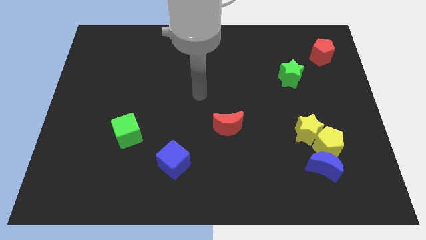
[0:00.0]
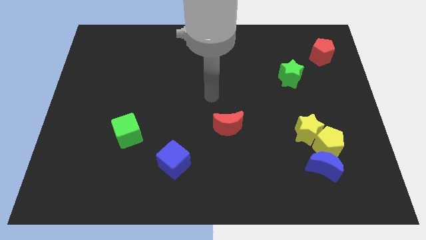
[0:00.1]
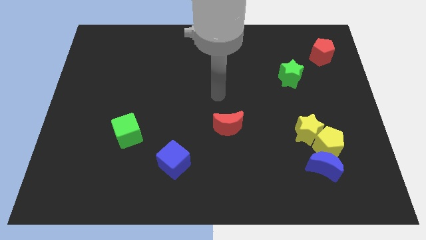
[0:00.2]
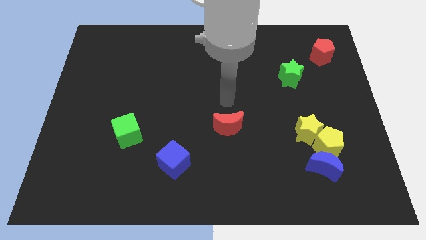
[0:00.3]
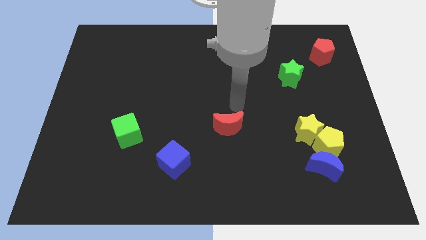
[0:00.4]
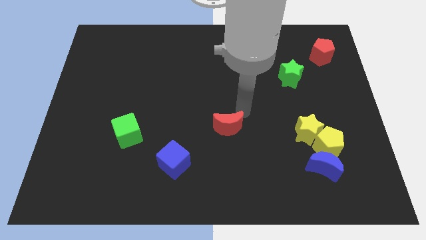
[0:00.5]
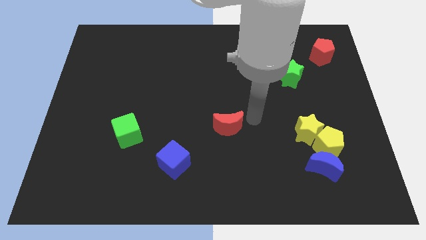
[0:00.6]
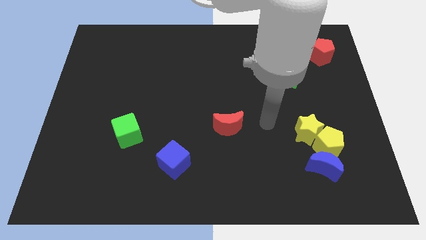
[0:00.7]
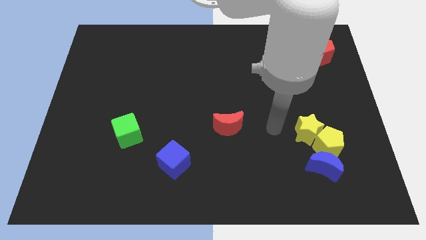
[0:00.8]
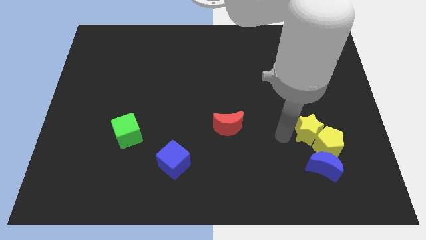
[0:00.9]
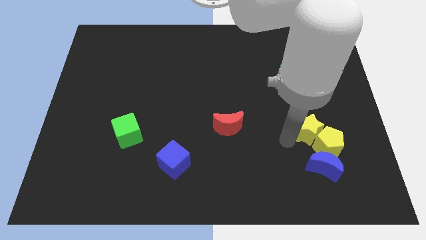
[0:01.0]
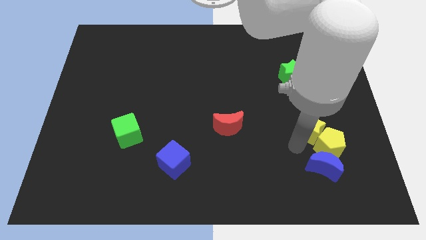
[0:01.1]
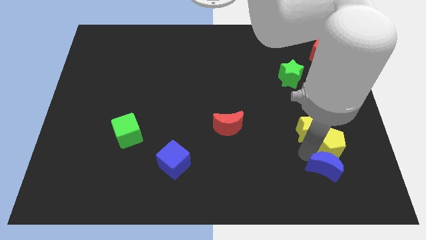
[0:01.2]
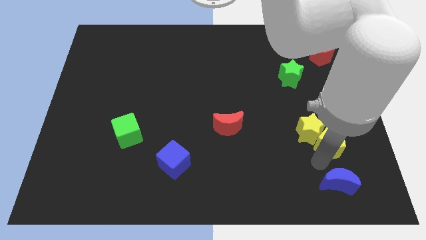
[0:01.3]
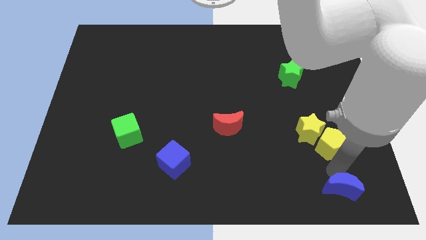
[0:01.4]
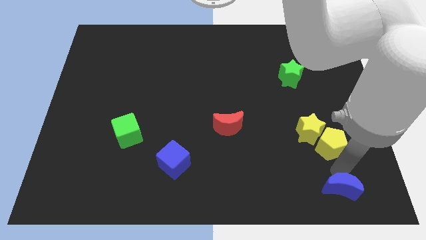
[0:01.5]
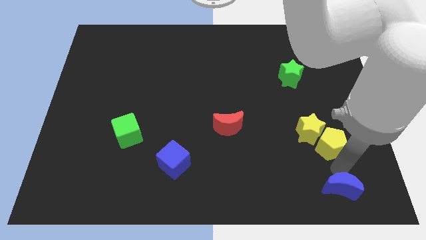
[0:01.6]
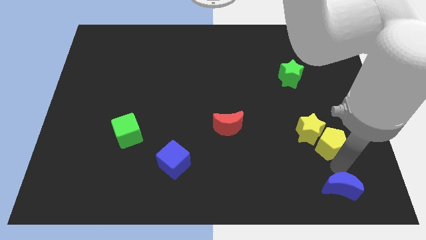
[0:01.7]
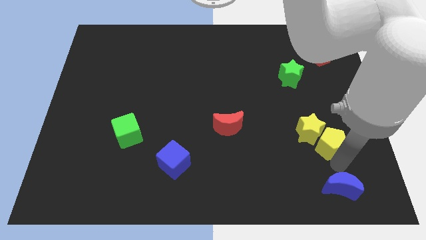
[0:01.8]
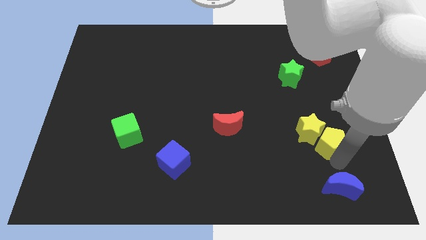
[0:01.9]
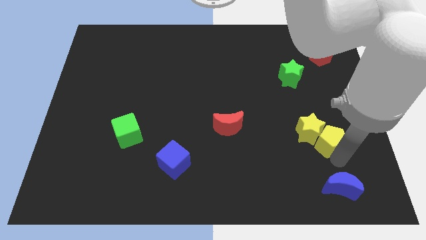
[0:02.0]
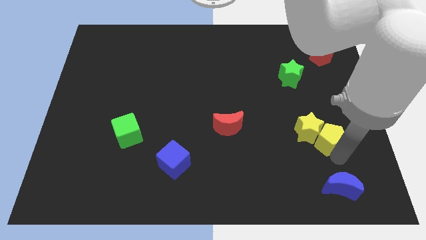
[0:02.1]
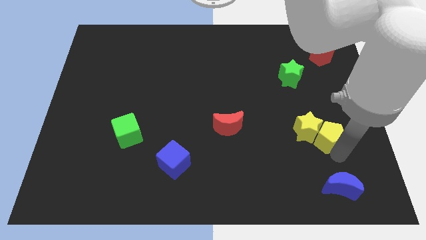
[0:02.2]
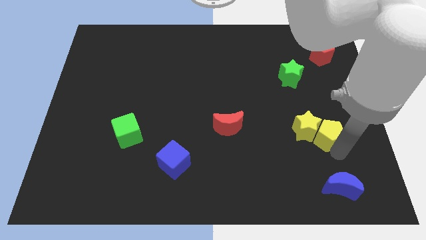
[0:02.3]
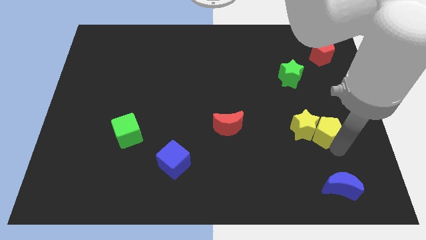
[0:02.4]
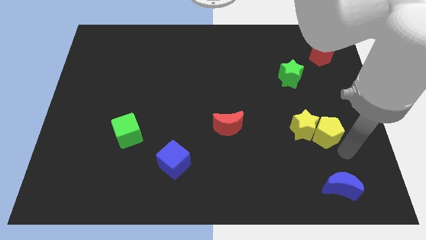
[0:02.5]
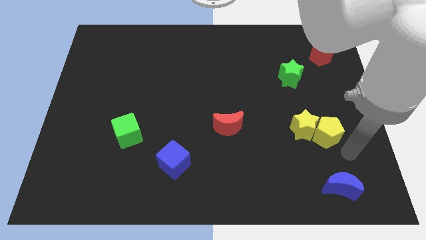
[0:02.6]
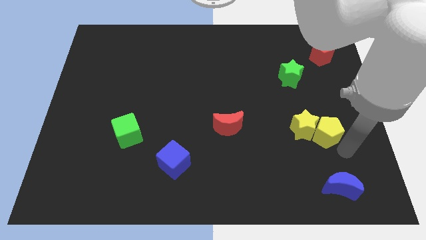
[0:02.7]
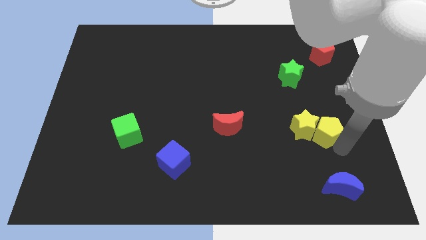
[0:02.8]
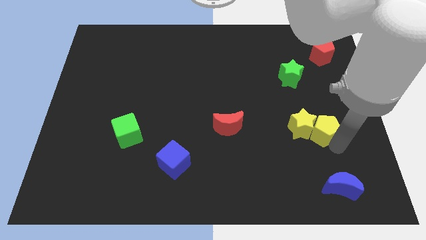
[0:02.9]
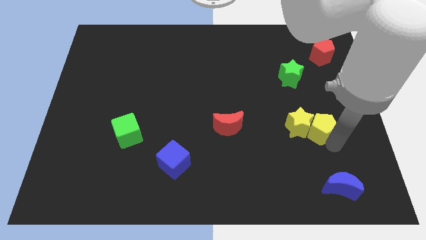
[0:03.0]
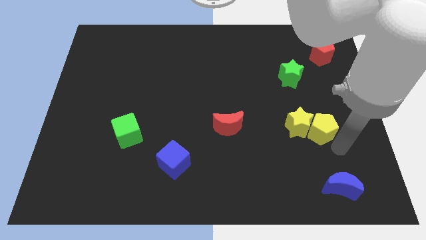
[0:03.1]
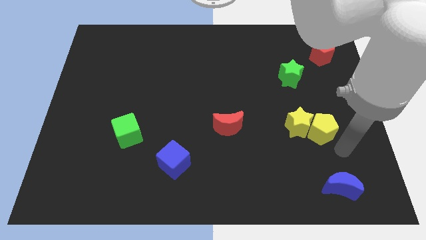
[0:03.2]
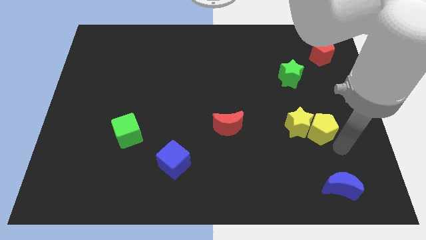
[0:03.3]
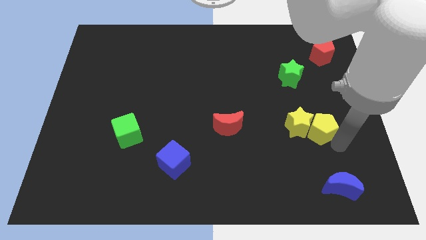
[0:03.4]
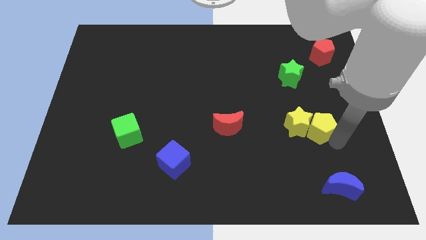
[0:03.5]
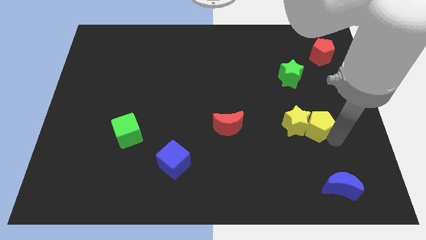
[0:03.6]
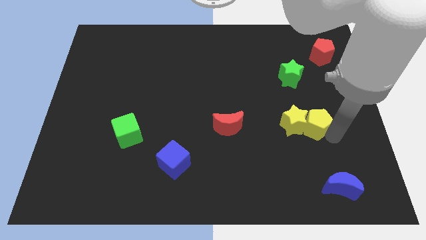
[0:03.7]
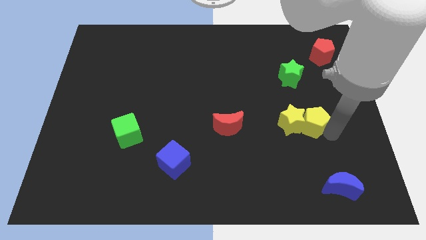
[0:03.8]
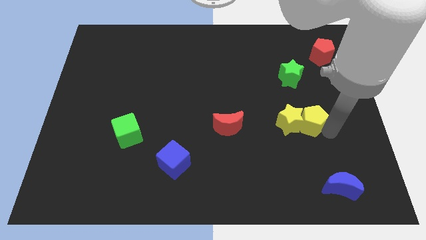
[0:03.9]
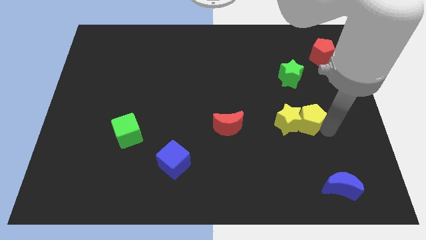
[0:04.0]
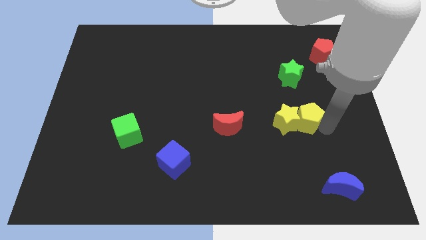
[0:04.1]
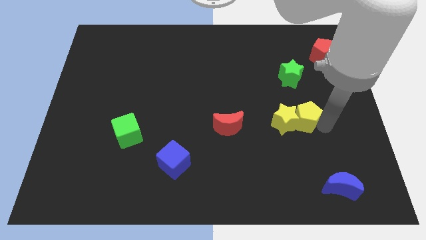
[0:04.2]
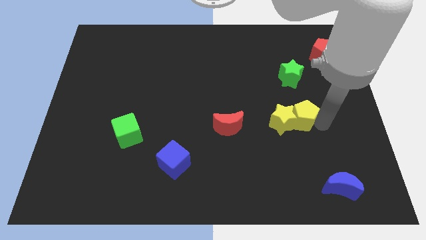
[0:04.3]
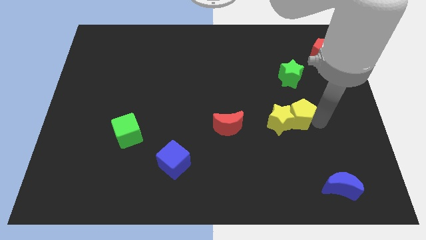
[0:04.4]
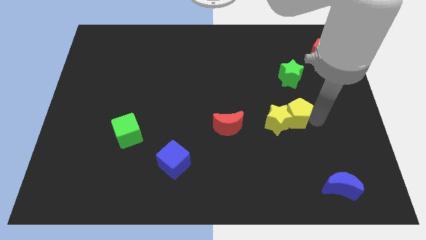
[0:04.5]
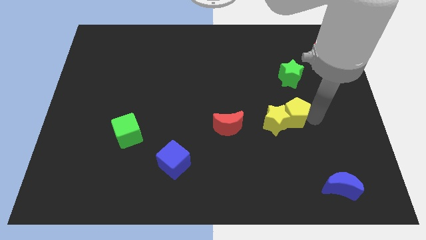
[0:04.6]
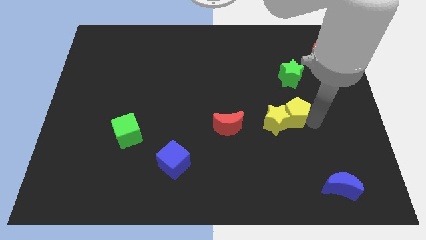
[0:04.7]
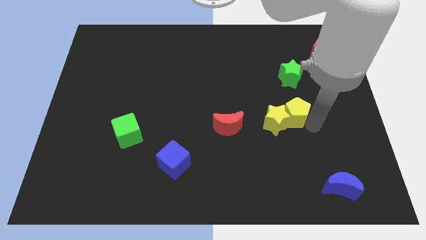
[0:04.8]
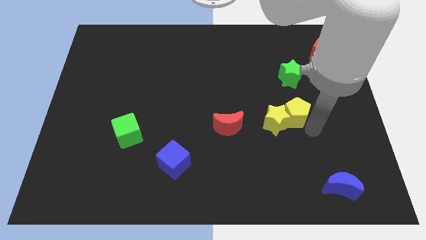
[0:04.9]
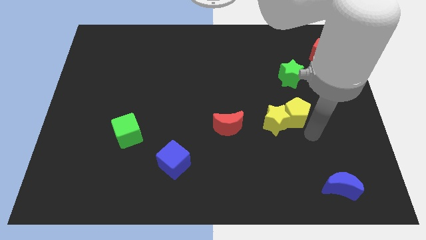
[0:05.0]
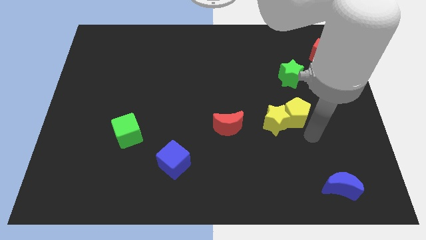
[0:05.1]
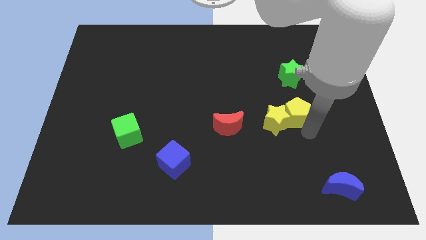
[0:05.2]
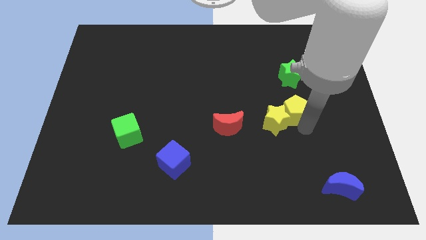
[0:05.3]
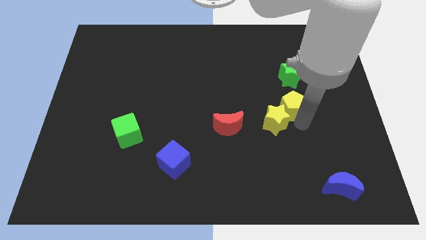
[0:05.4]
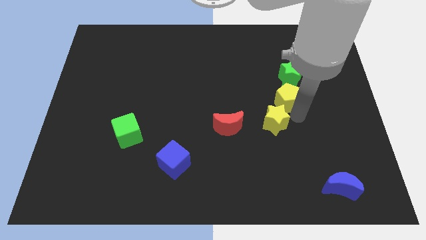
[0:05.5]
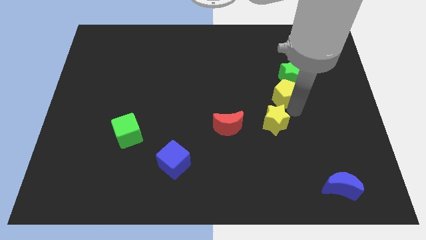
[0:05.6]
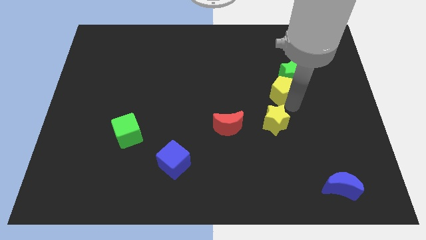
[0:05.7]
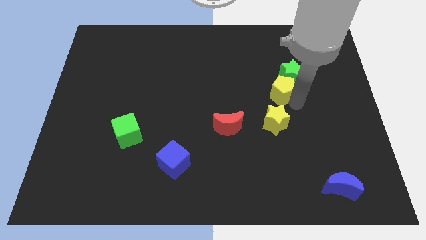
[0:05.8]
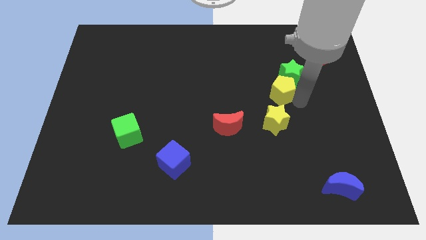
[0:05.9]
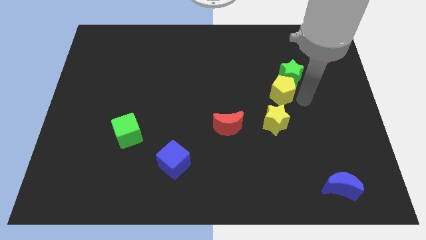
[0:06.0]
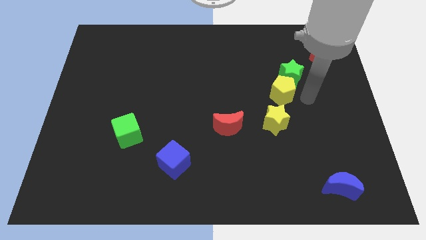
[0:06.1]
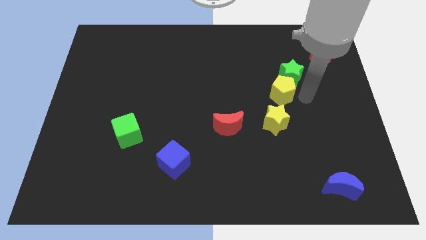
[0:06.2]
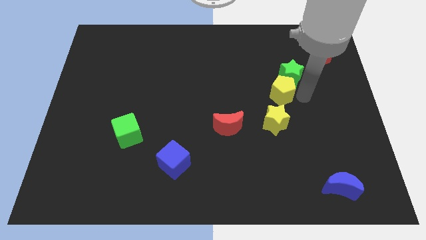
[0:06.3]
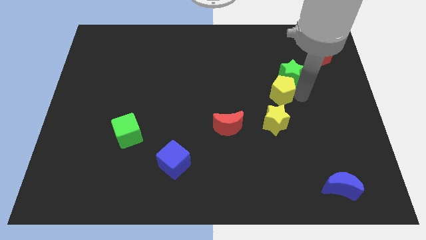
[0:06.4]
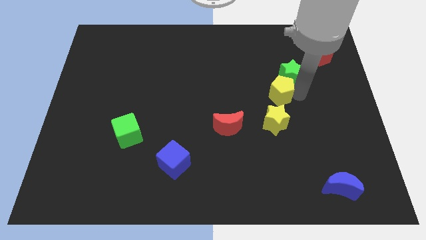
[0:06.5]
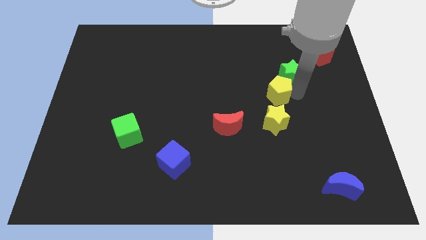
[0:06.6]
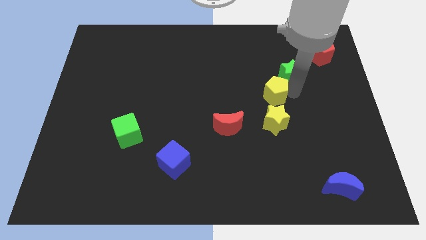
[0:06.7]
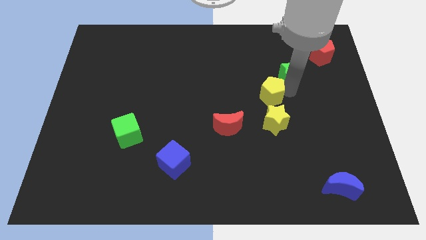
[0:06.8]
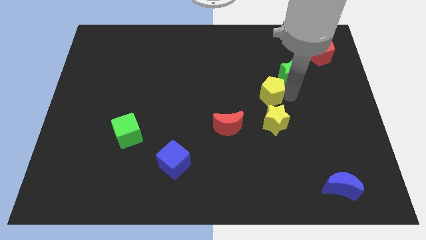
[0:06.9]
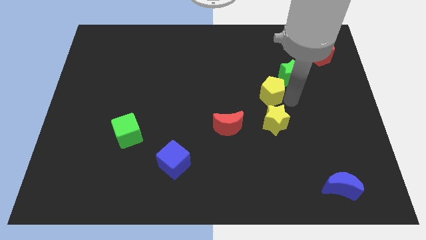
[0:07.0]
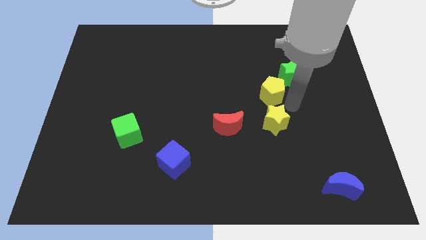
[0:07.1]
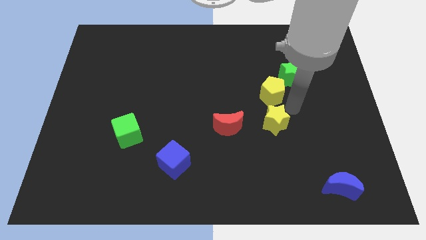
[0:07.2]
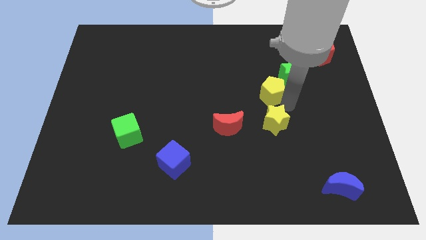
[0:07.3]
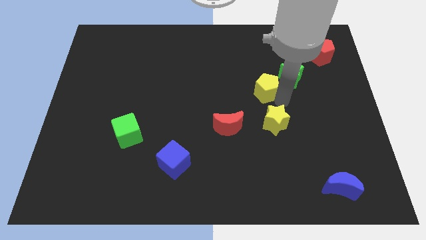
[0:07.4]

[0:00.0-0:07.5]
put the yellow pentagon just left of the green star
